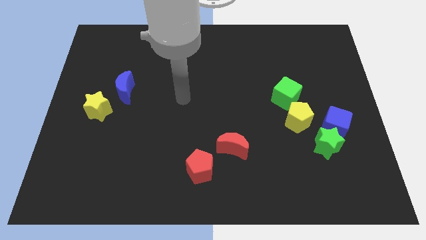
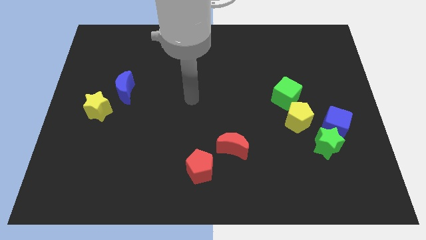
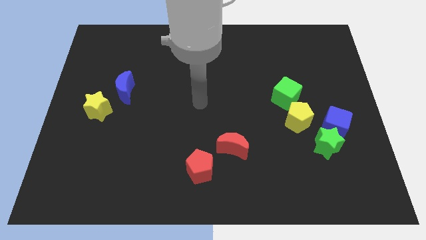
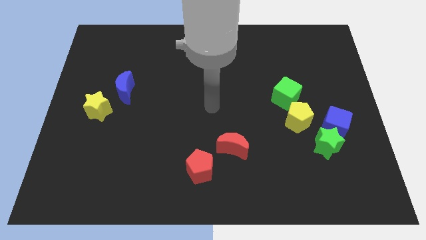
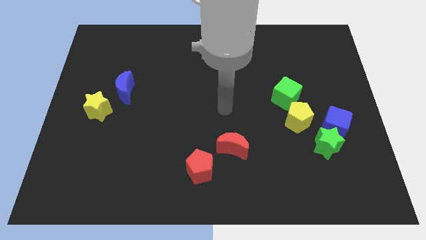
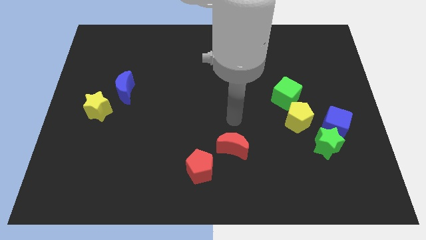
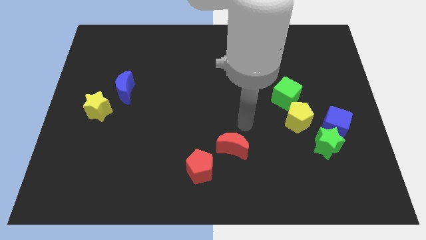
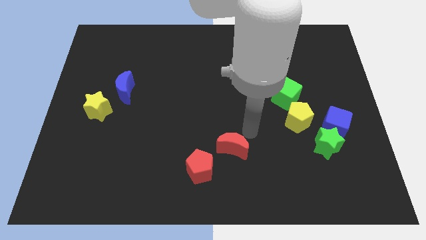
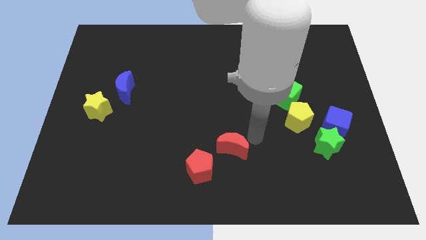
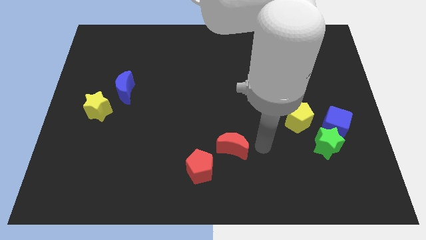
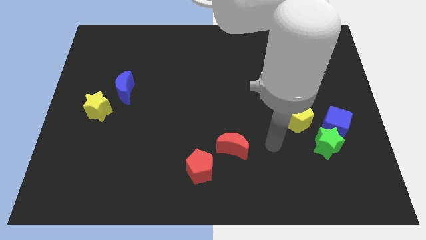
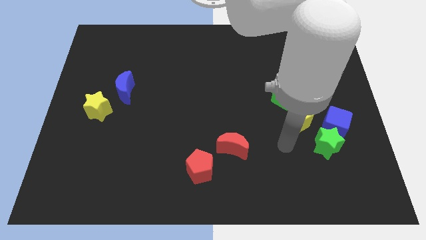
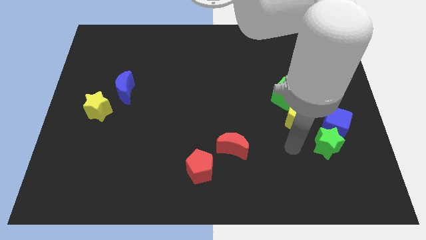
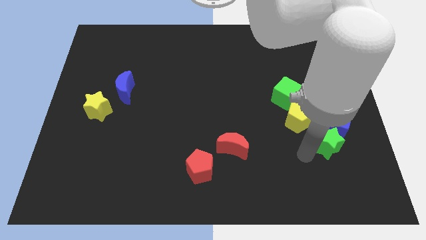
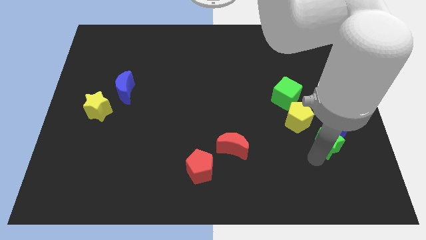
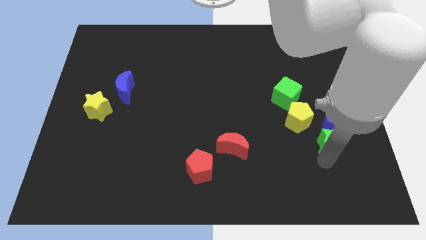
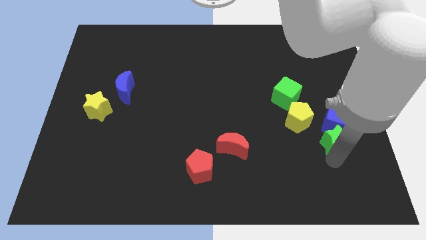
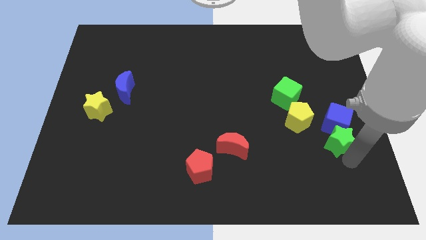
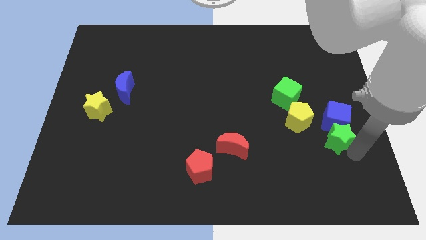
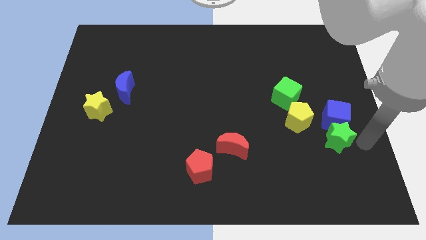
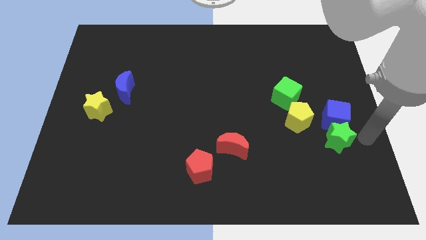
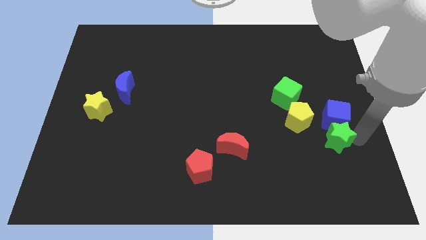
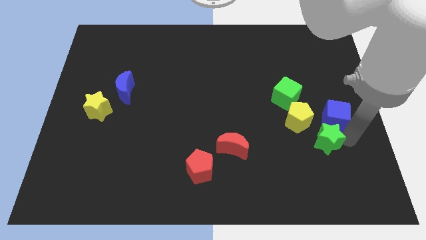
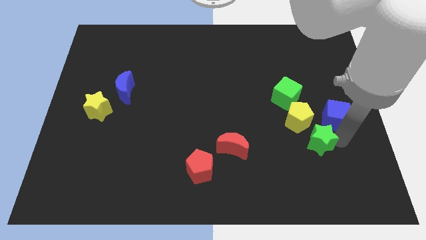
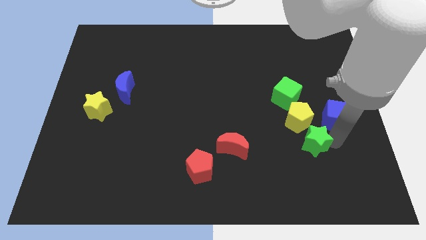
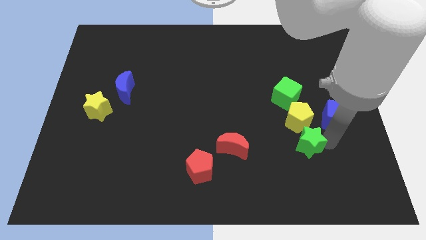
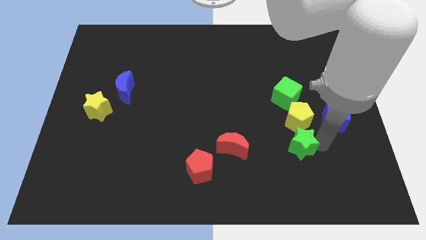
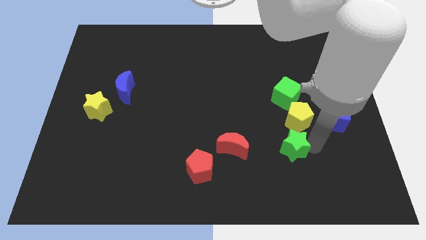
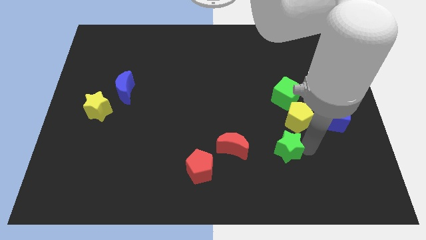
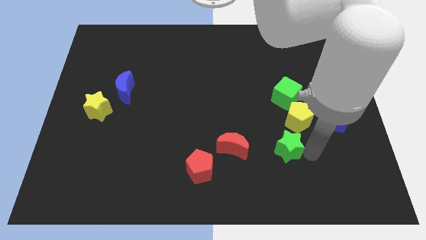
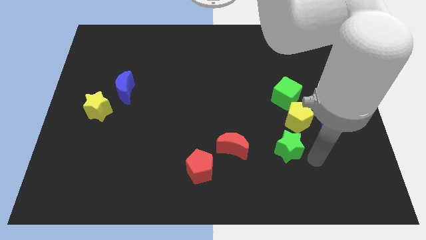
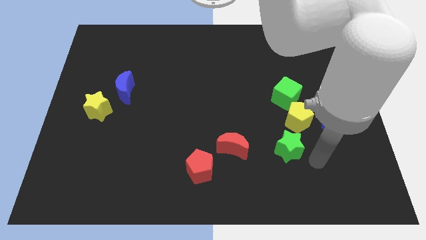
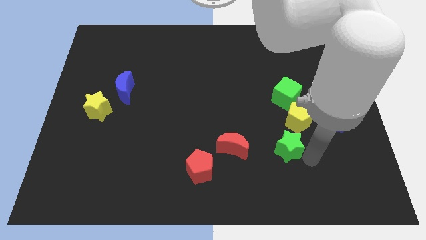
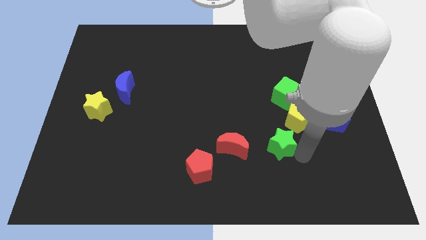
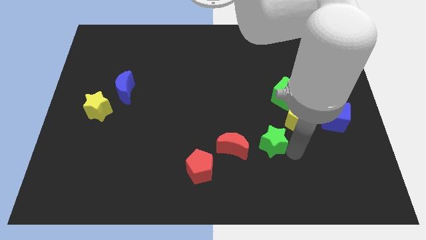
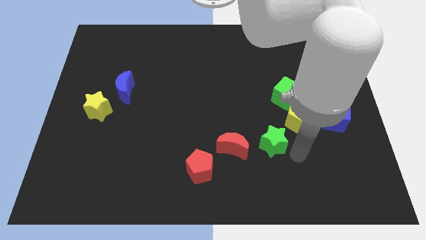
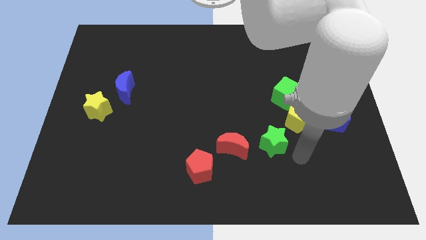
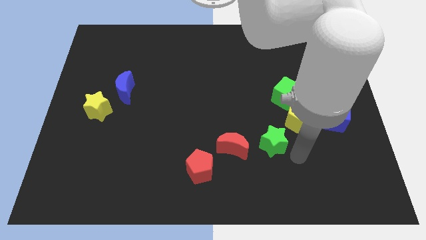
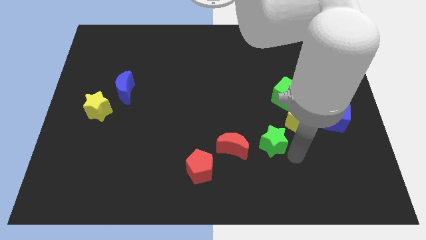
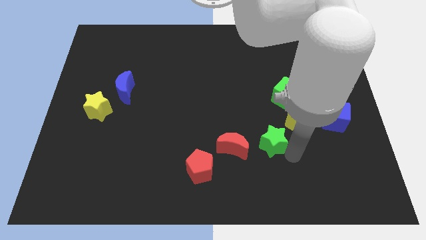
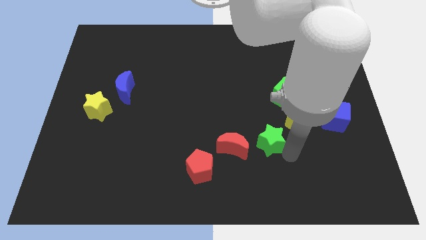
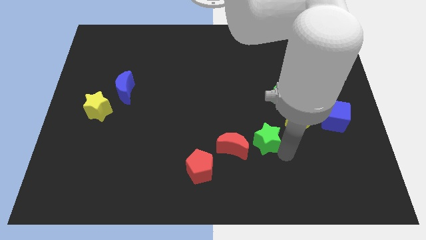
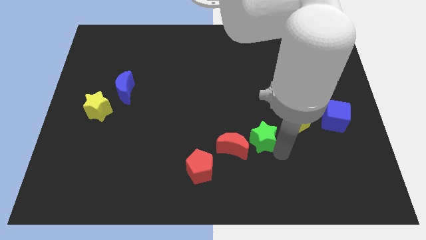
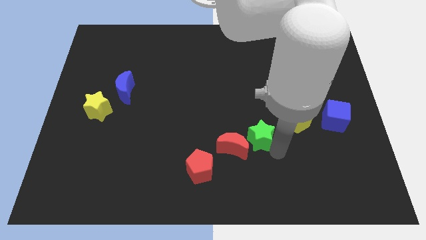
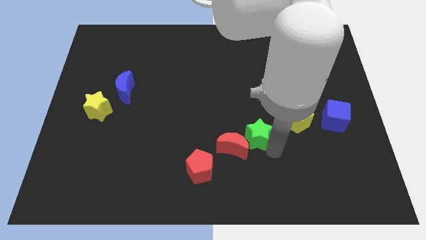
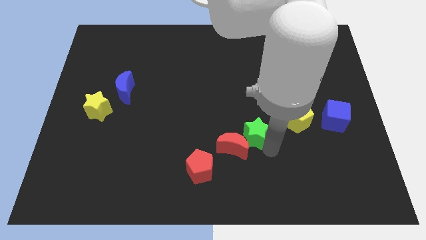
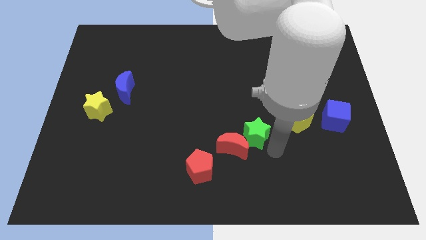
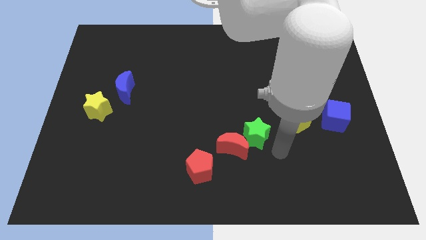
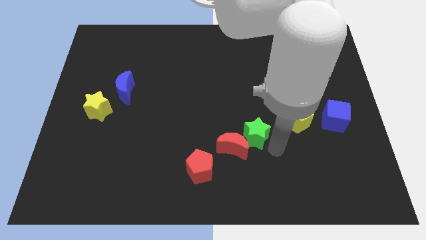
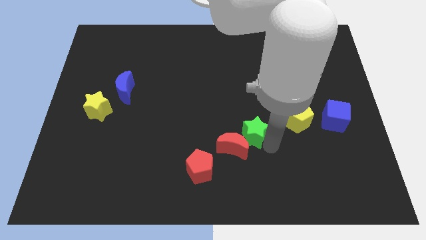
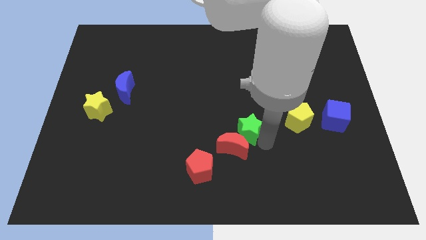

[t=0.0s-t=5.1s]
put the green star to the center
